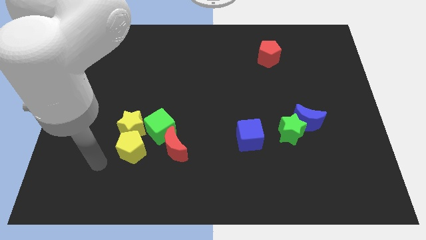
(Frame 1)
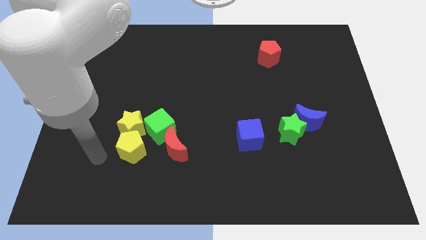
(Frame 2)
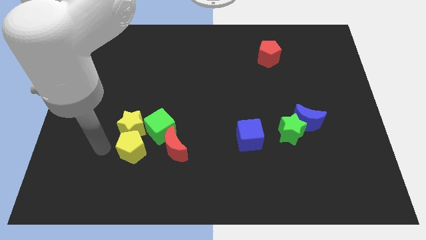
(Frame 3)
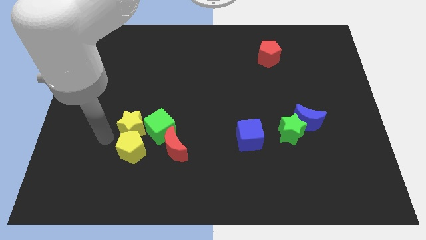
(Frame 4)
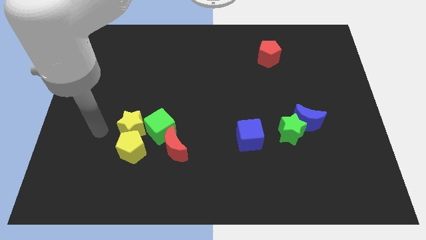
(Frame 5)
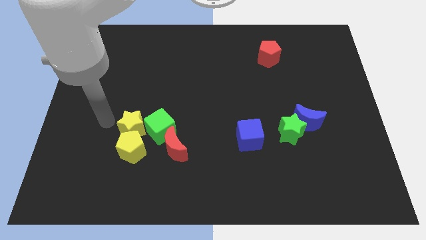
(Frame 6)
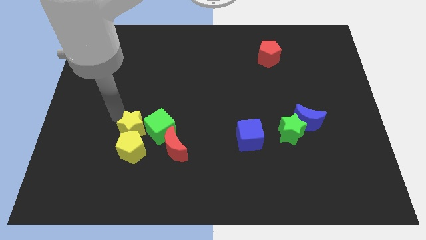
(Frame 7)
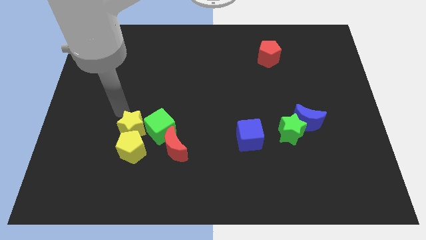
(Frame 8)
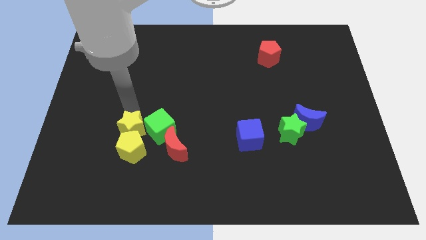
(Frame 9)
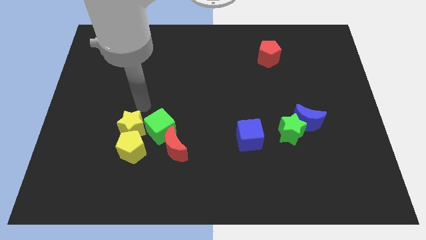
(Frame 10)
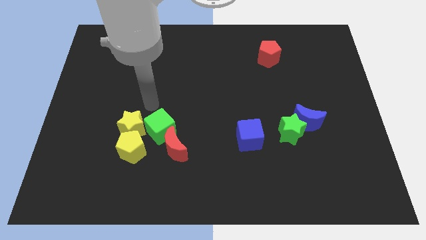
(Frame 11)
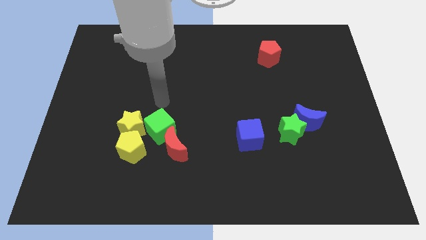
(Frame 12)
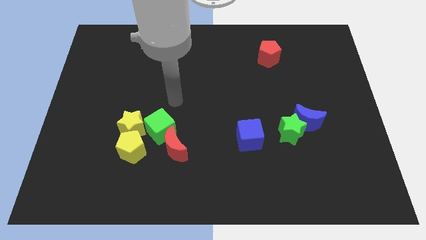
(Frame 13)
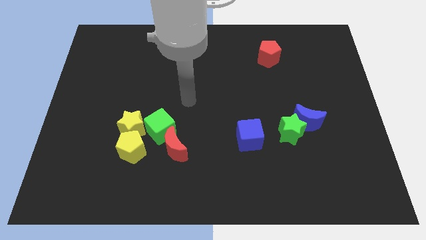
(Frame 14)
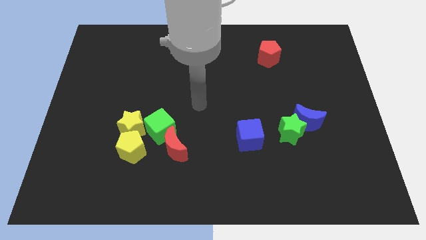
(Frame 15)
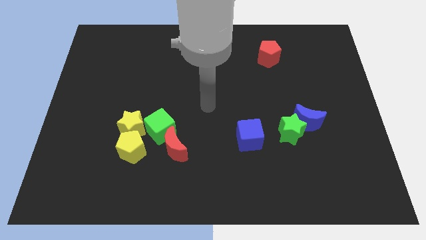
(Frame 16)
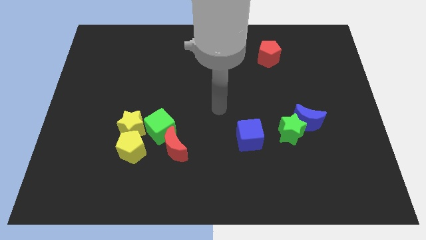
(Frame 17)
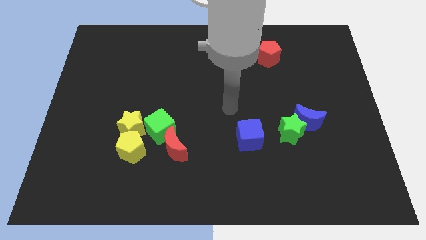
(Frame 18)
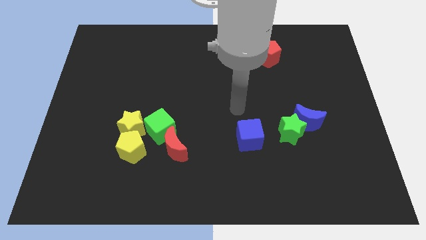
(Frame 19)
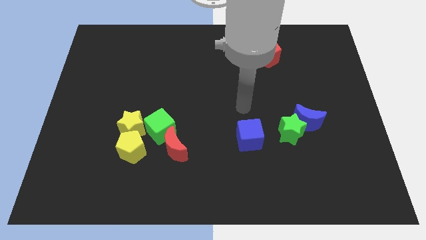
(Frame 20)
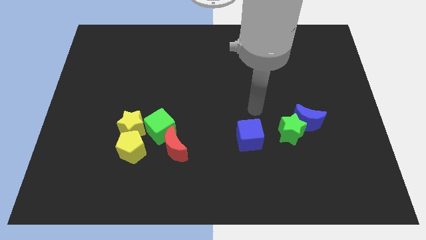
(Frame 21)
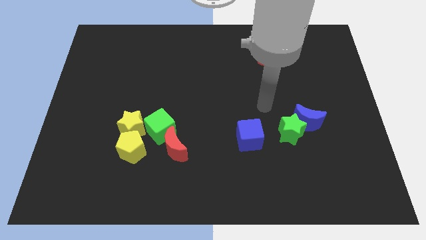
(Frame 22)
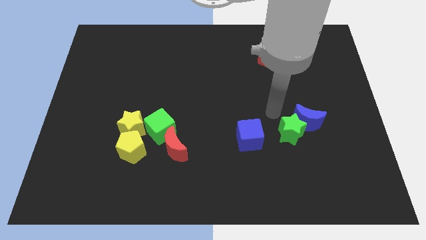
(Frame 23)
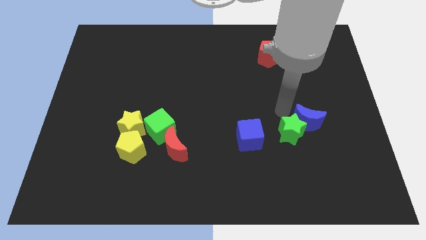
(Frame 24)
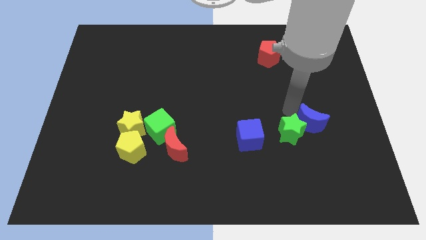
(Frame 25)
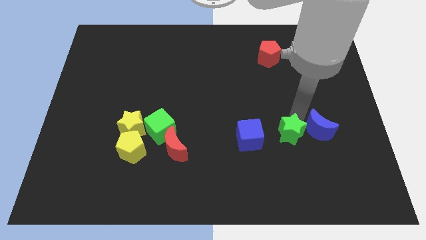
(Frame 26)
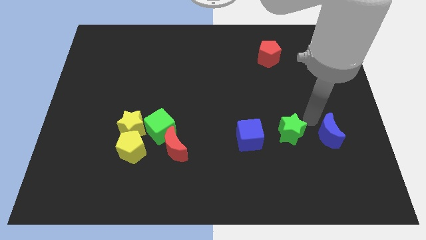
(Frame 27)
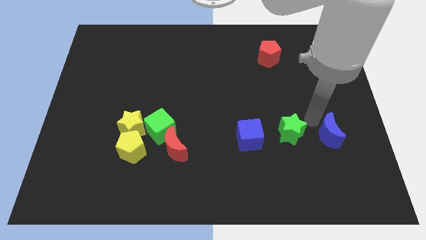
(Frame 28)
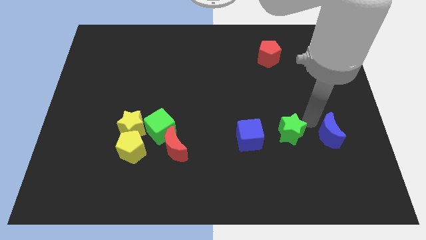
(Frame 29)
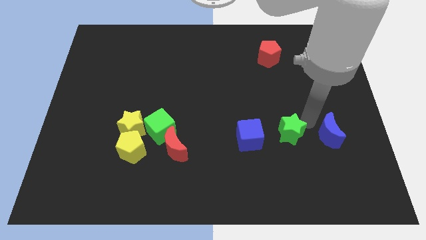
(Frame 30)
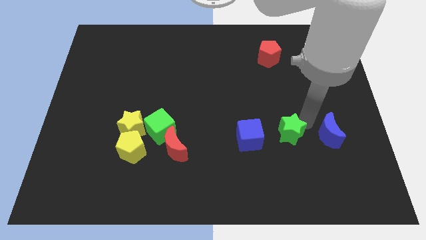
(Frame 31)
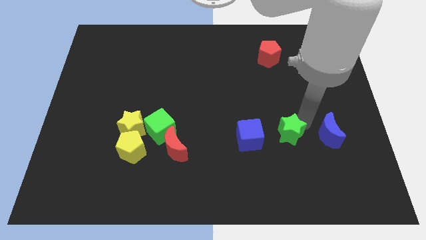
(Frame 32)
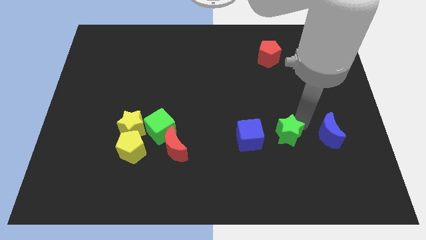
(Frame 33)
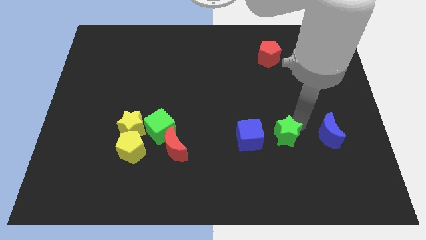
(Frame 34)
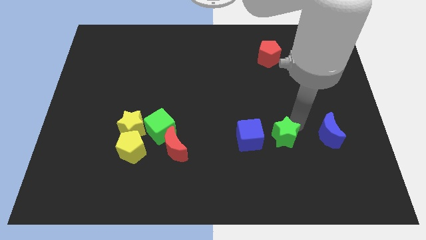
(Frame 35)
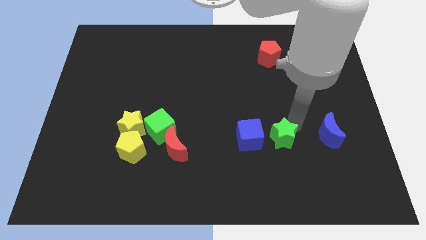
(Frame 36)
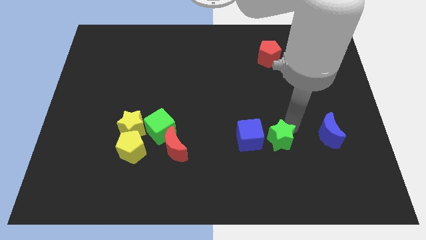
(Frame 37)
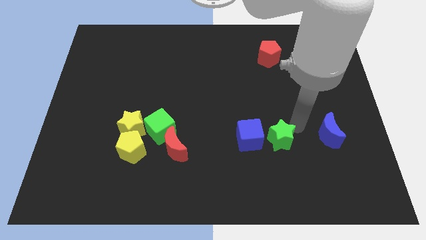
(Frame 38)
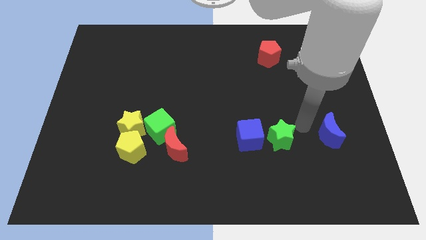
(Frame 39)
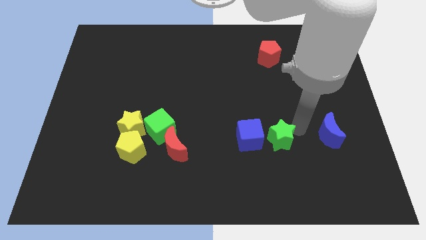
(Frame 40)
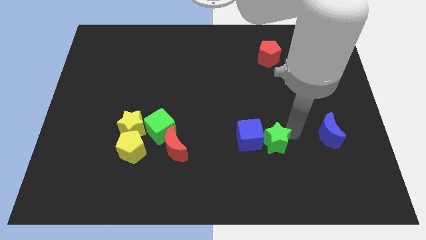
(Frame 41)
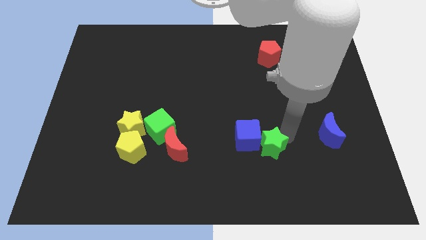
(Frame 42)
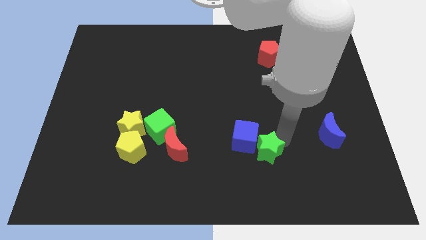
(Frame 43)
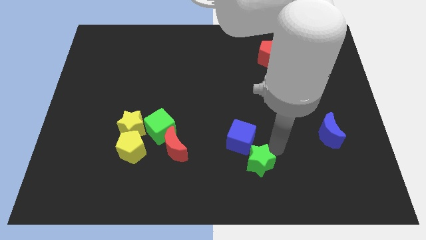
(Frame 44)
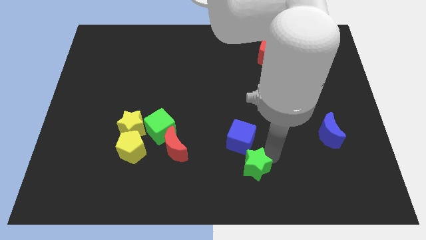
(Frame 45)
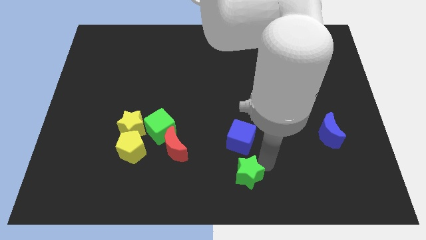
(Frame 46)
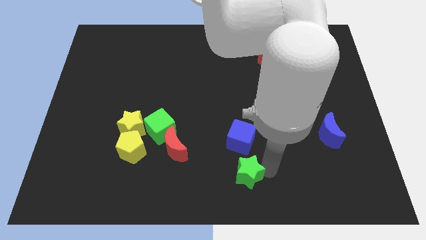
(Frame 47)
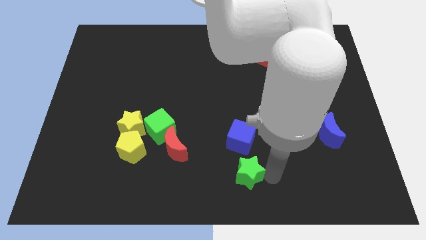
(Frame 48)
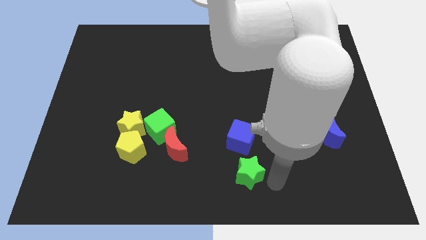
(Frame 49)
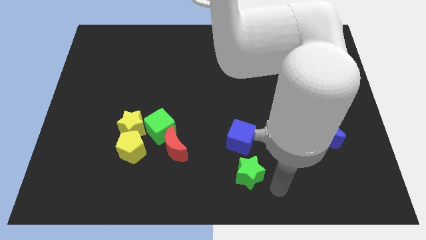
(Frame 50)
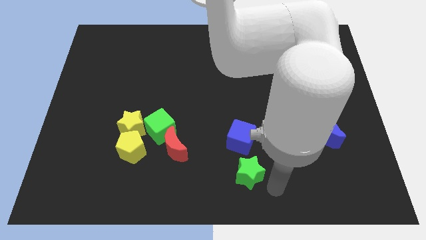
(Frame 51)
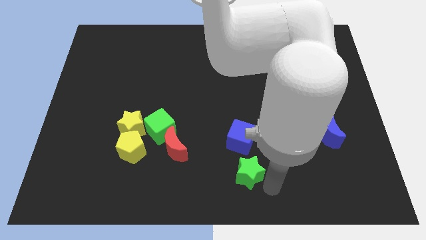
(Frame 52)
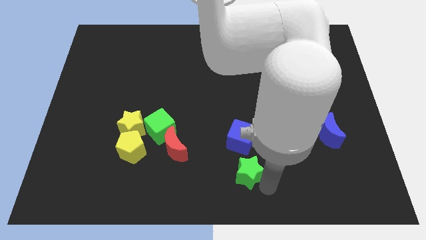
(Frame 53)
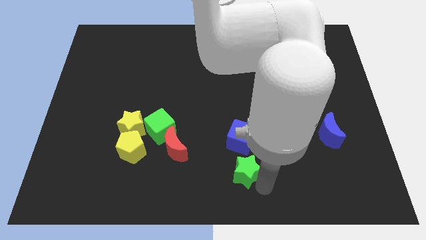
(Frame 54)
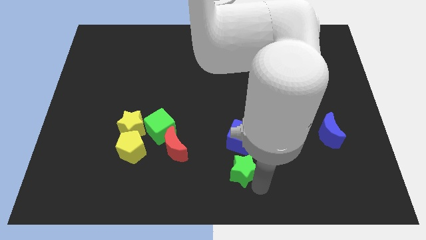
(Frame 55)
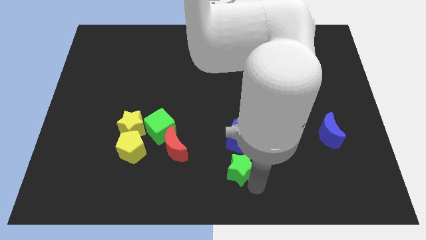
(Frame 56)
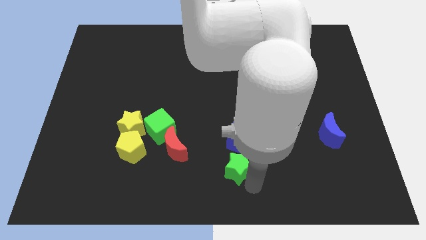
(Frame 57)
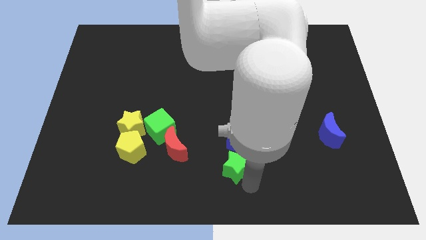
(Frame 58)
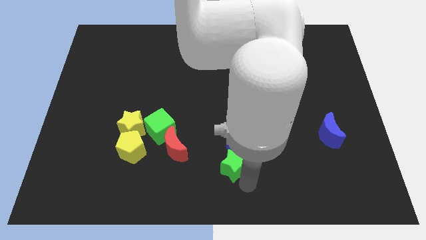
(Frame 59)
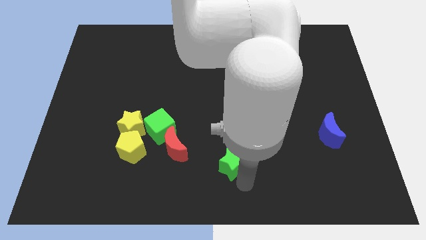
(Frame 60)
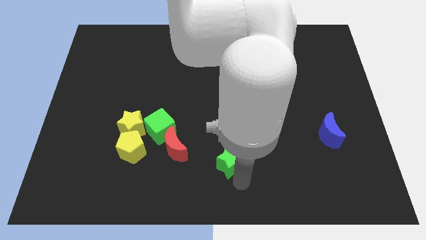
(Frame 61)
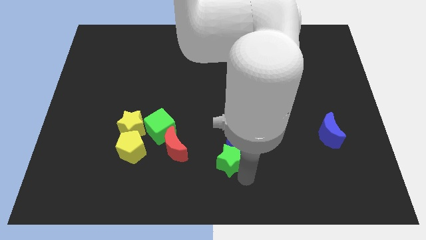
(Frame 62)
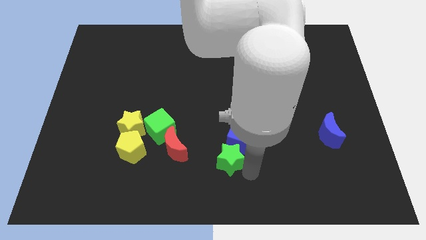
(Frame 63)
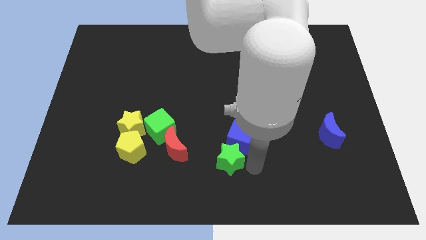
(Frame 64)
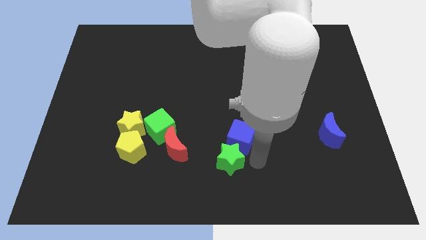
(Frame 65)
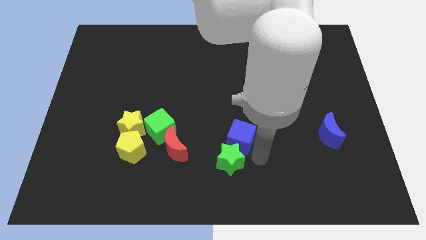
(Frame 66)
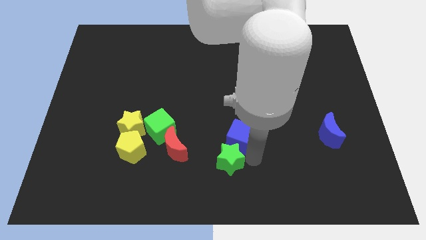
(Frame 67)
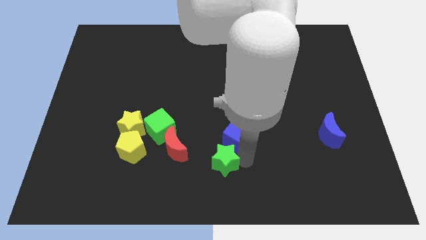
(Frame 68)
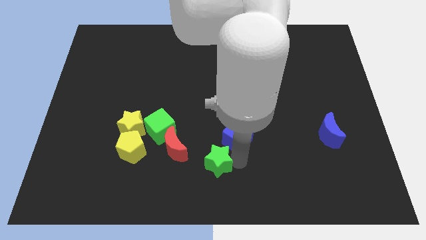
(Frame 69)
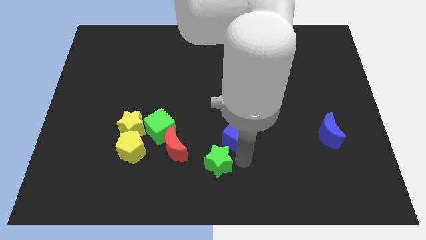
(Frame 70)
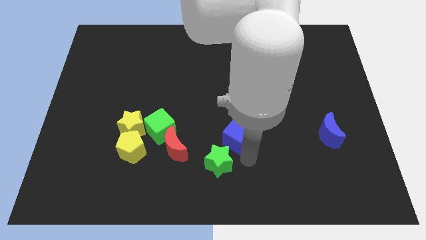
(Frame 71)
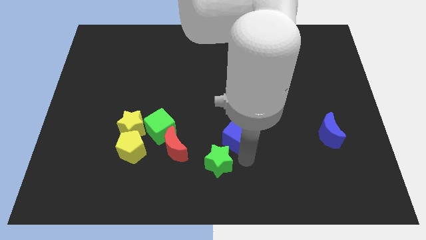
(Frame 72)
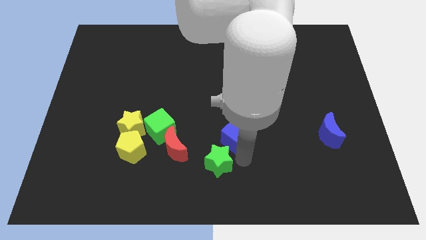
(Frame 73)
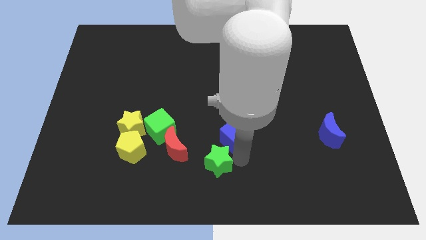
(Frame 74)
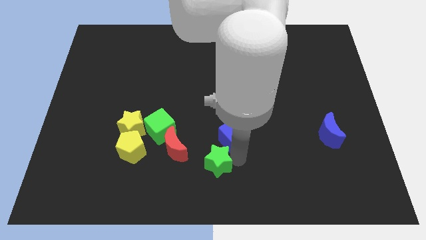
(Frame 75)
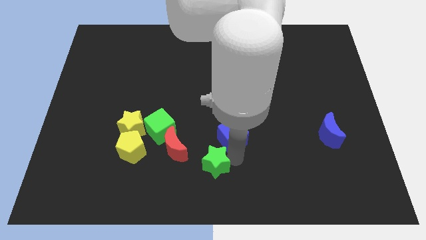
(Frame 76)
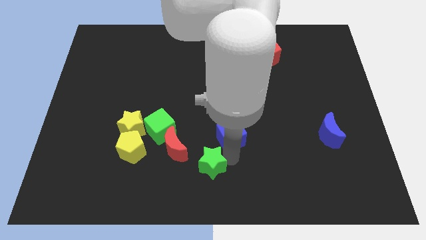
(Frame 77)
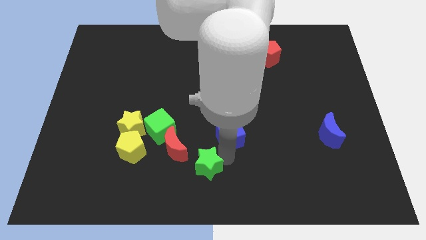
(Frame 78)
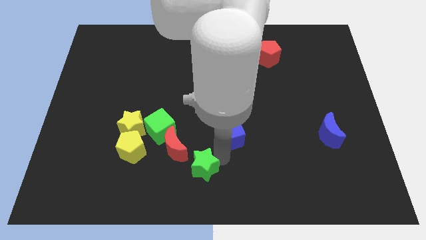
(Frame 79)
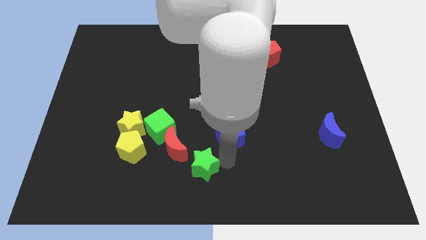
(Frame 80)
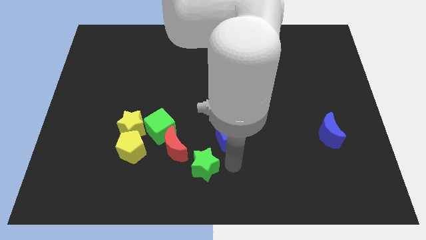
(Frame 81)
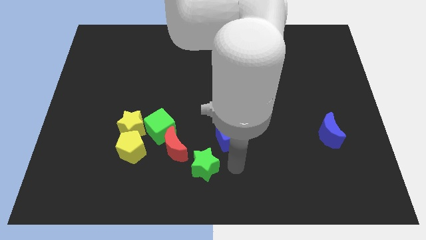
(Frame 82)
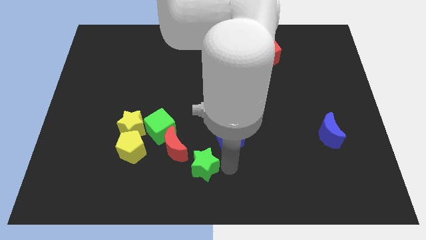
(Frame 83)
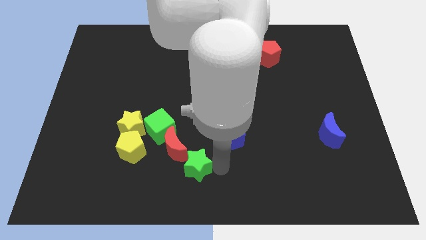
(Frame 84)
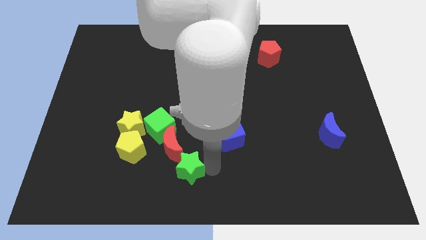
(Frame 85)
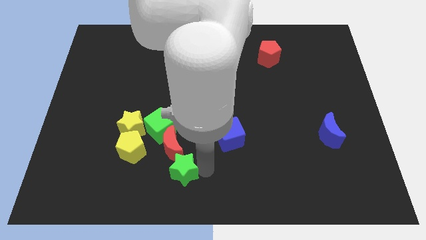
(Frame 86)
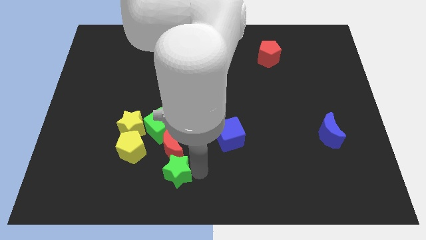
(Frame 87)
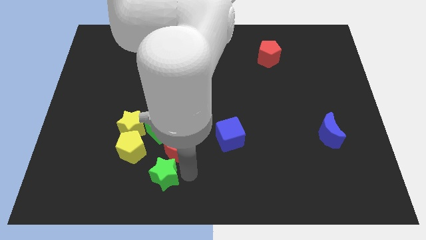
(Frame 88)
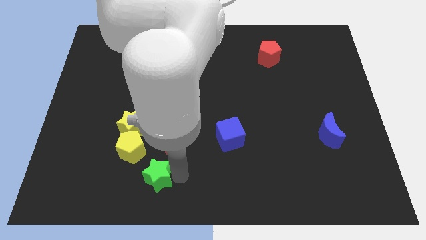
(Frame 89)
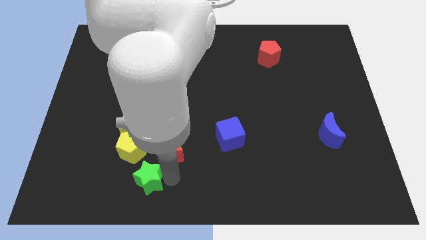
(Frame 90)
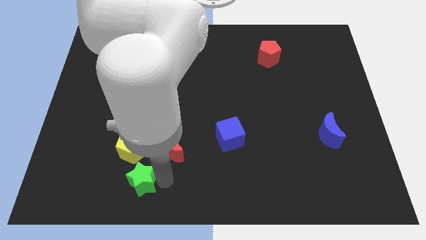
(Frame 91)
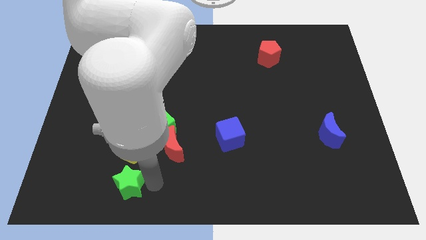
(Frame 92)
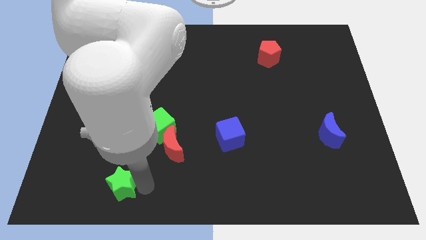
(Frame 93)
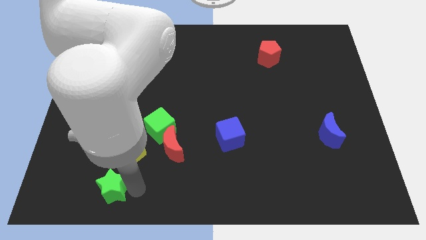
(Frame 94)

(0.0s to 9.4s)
move the green star diagonally down and to the left of the yellow pentagon
